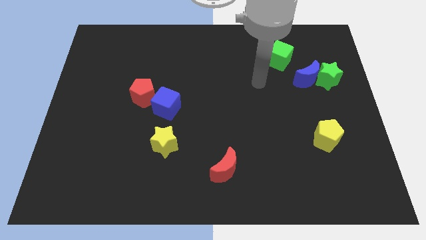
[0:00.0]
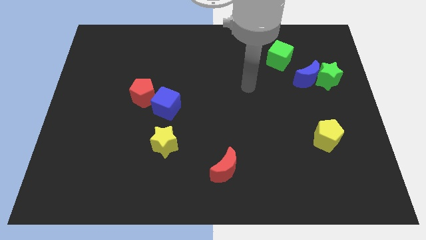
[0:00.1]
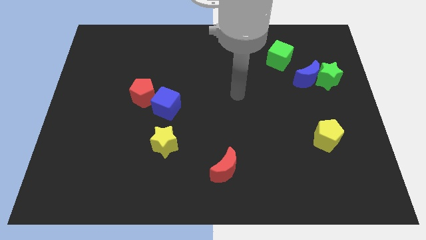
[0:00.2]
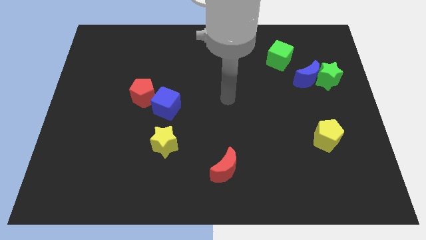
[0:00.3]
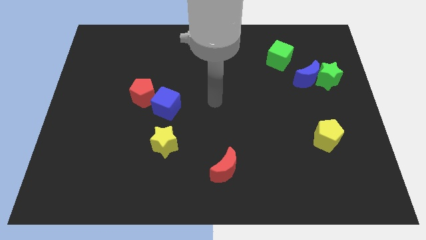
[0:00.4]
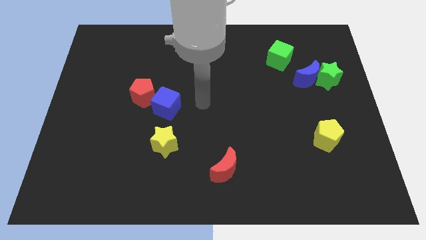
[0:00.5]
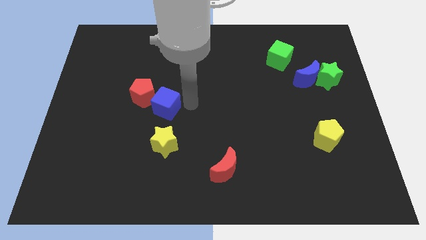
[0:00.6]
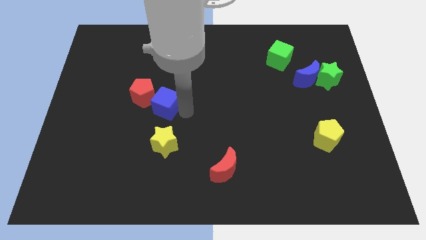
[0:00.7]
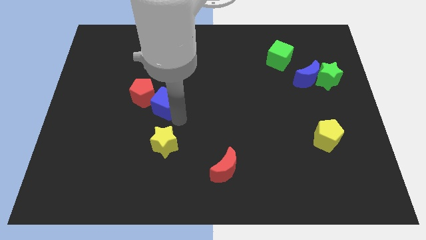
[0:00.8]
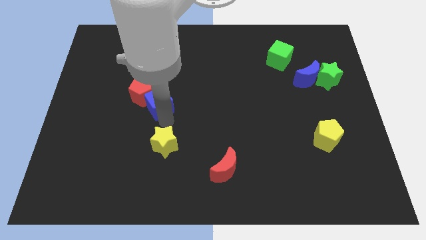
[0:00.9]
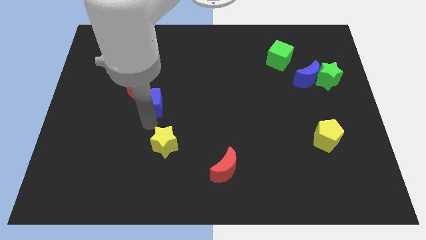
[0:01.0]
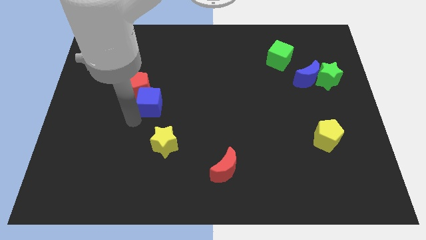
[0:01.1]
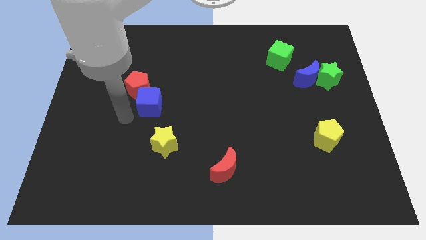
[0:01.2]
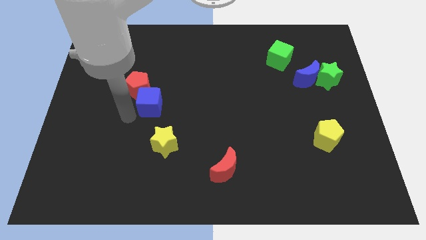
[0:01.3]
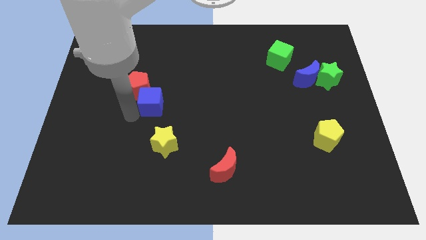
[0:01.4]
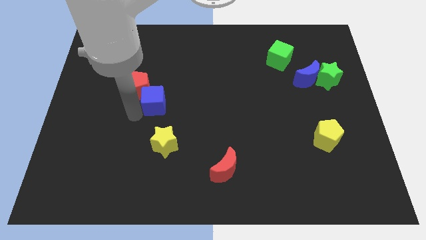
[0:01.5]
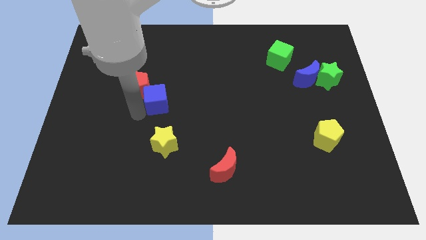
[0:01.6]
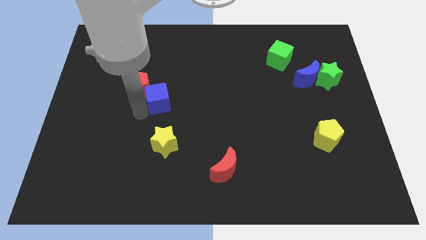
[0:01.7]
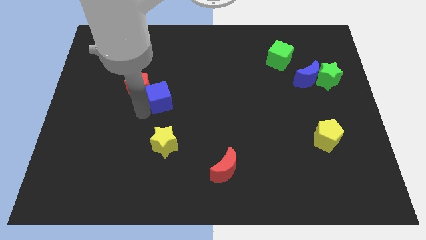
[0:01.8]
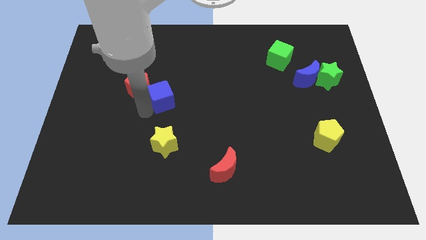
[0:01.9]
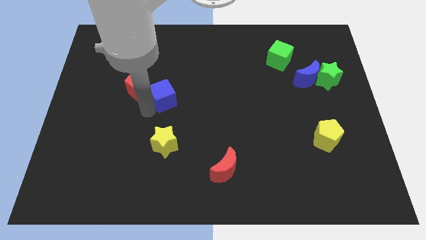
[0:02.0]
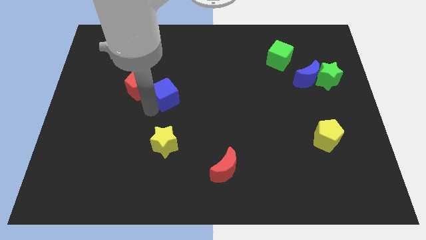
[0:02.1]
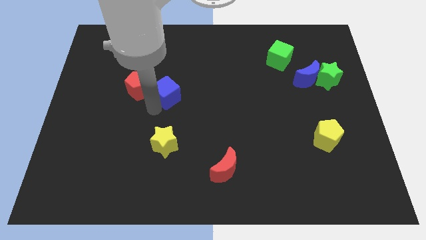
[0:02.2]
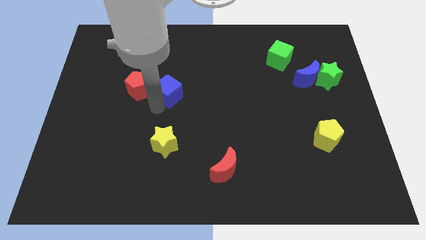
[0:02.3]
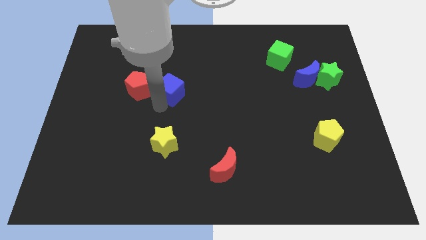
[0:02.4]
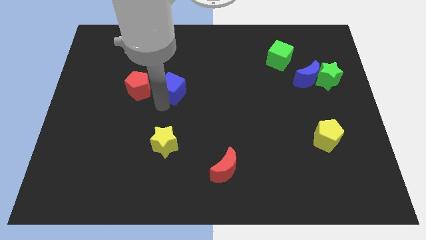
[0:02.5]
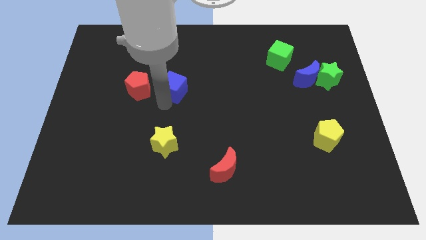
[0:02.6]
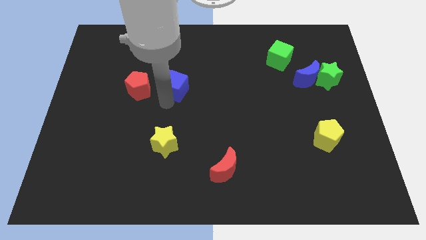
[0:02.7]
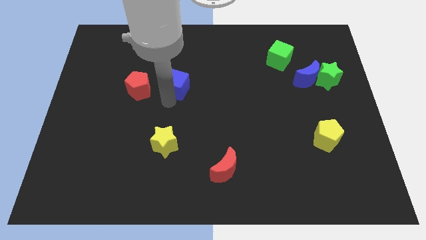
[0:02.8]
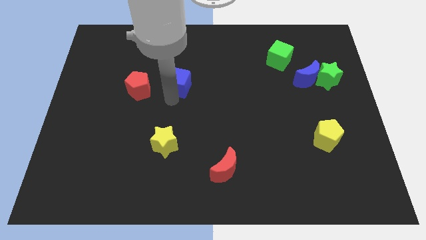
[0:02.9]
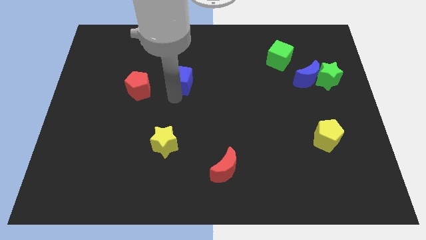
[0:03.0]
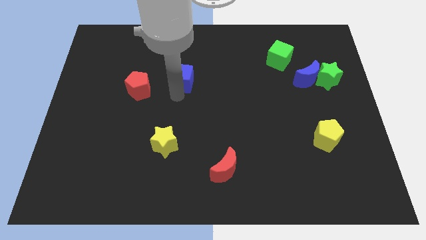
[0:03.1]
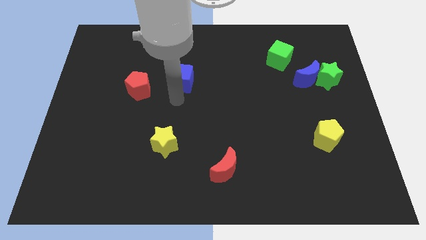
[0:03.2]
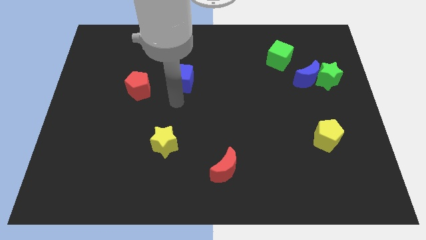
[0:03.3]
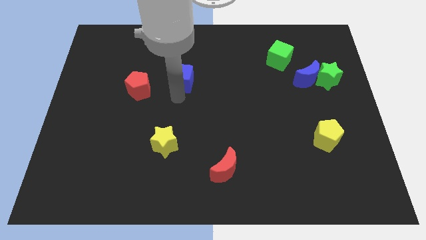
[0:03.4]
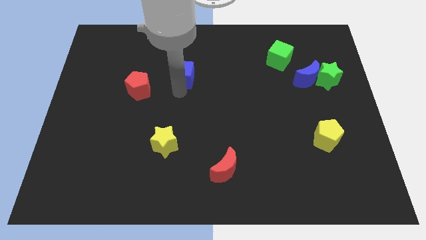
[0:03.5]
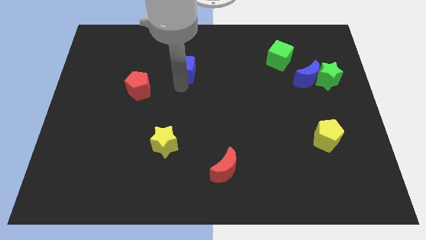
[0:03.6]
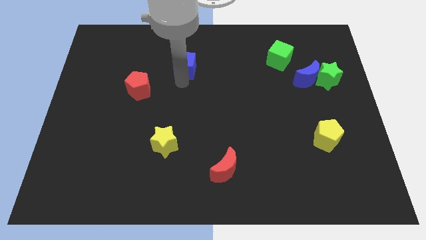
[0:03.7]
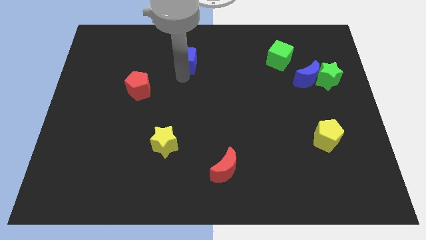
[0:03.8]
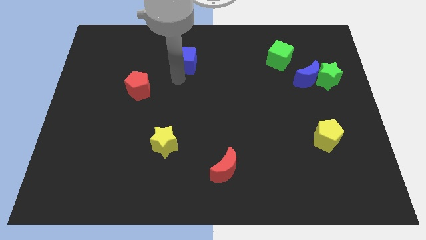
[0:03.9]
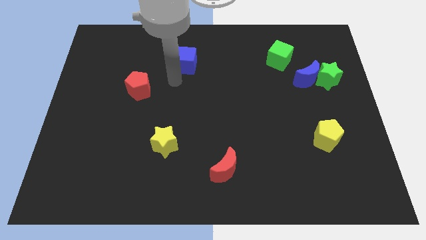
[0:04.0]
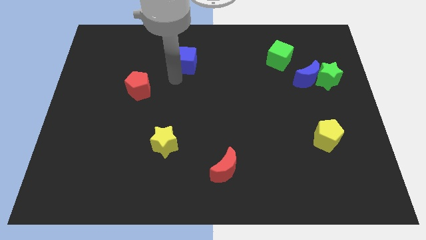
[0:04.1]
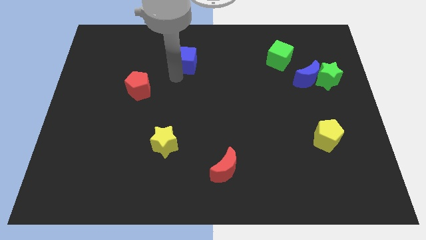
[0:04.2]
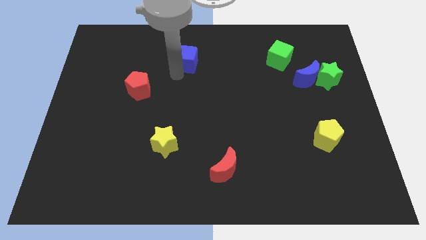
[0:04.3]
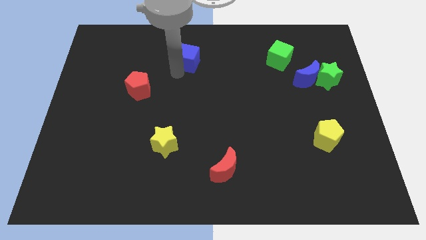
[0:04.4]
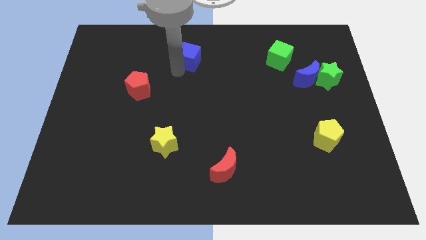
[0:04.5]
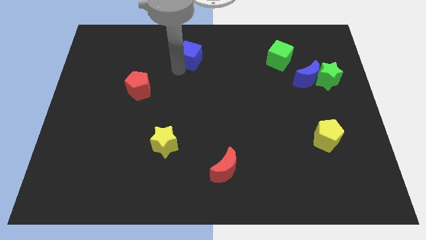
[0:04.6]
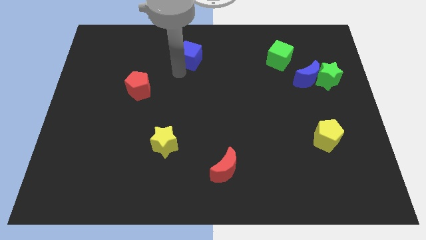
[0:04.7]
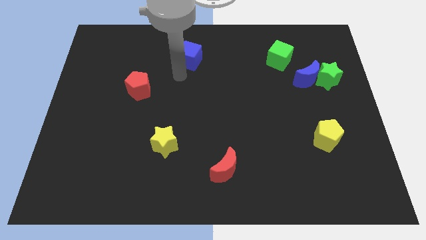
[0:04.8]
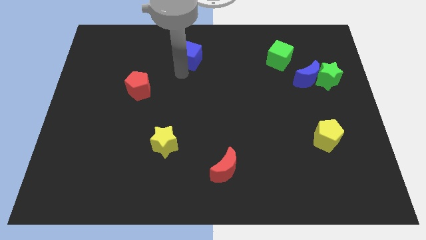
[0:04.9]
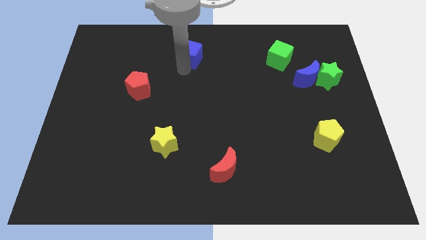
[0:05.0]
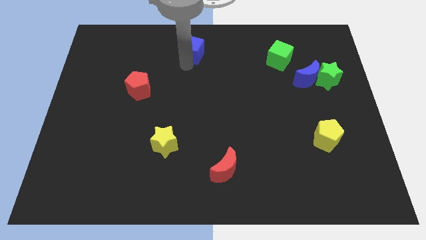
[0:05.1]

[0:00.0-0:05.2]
push the blue cube to the towards your base

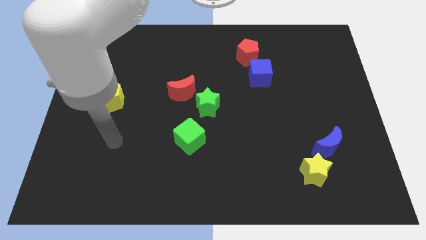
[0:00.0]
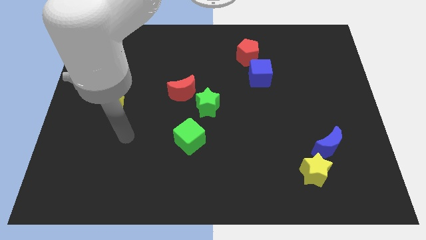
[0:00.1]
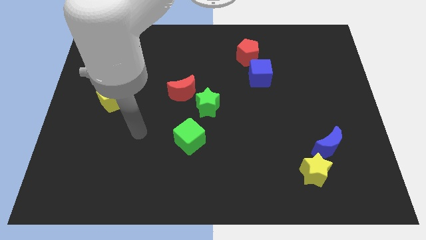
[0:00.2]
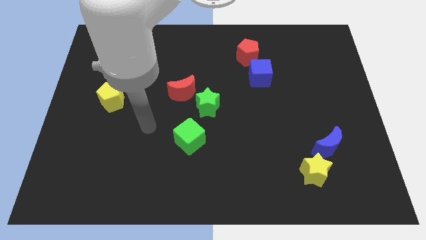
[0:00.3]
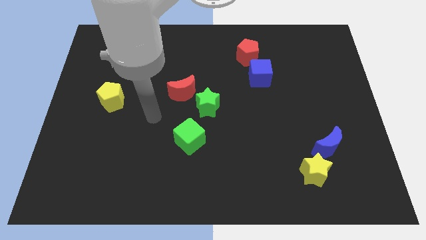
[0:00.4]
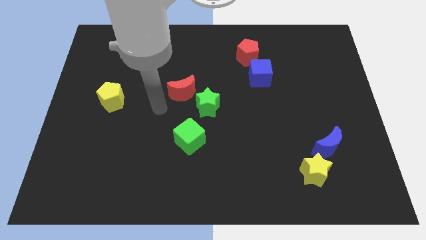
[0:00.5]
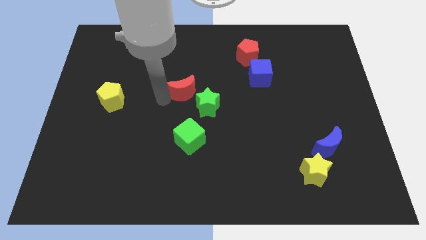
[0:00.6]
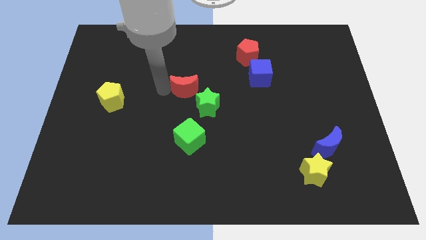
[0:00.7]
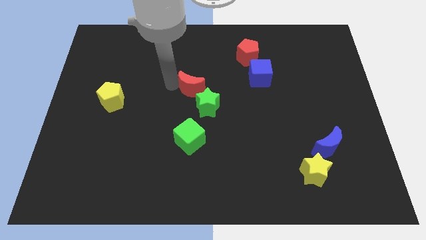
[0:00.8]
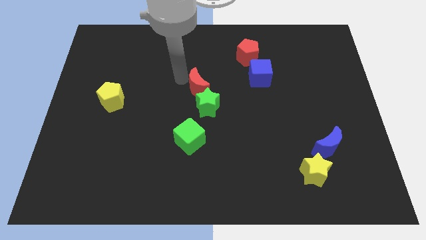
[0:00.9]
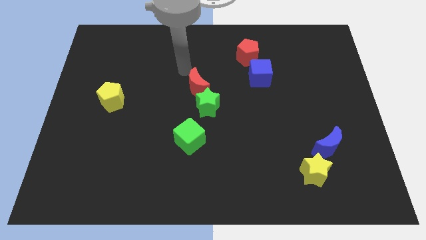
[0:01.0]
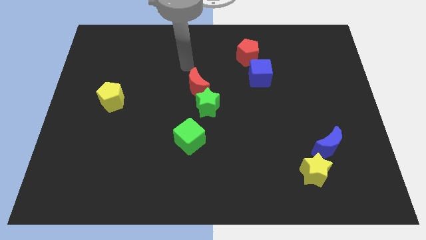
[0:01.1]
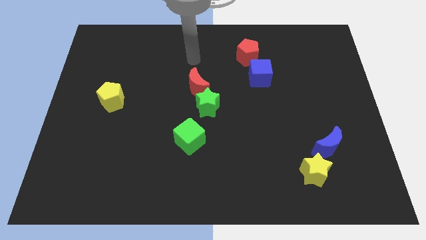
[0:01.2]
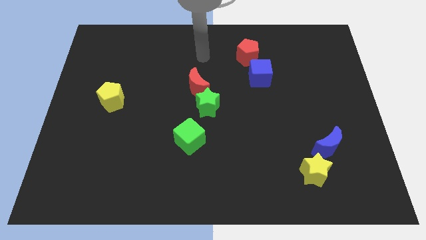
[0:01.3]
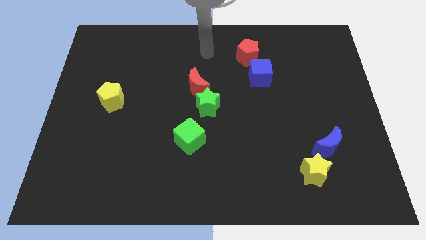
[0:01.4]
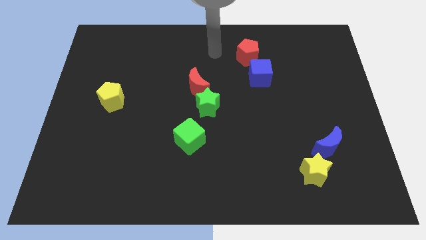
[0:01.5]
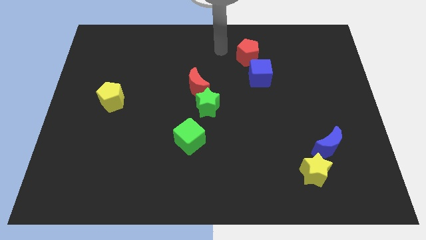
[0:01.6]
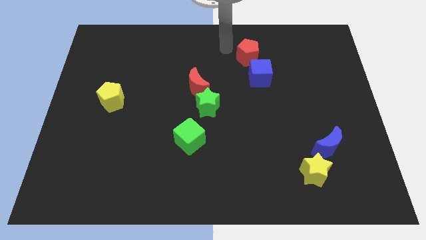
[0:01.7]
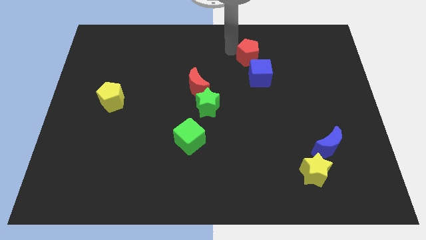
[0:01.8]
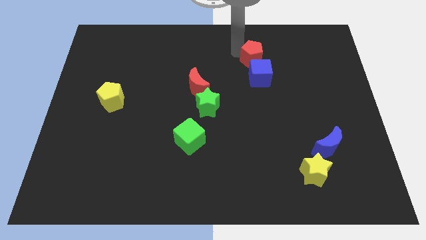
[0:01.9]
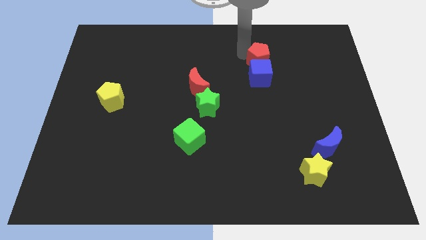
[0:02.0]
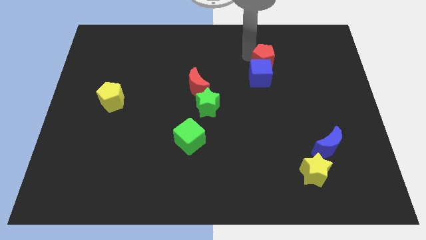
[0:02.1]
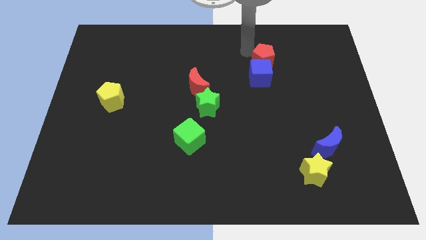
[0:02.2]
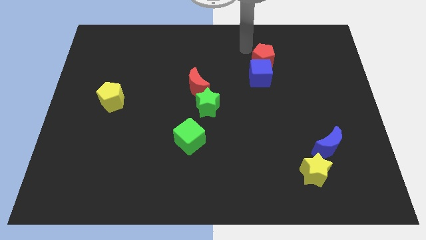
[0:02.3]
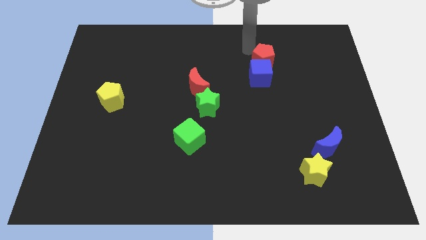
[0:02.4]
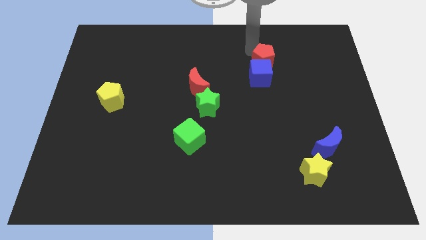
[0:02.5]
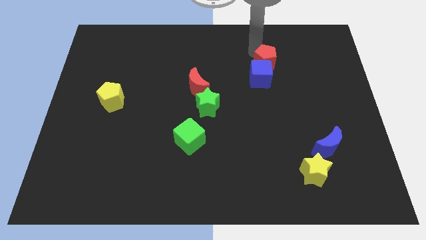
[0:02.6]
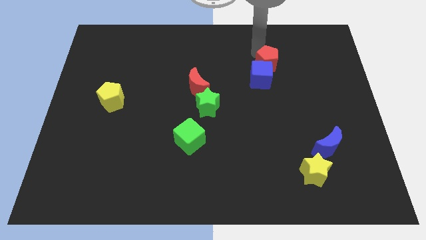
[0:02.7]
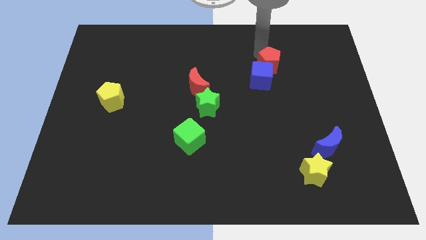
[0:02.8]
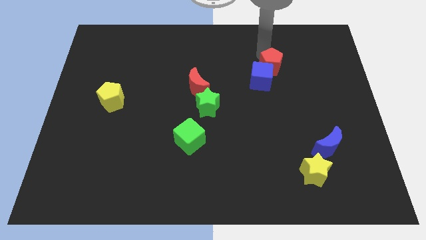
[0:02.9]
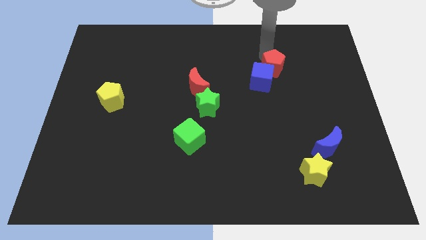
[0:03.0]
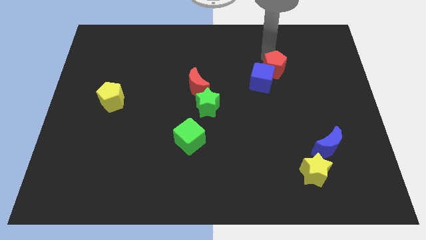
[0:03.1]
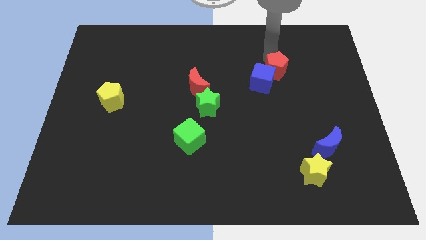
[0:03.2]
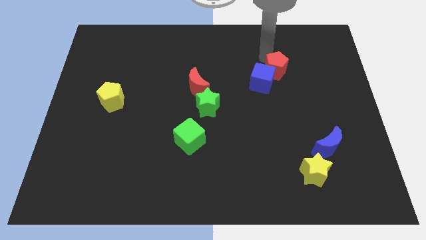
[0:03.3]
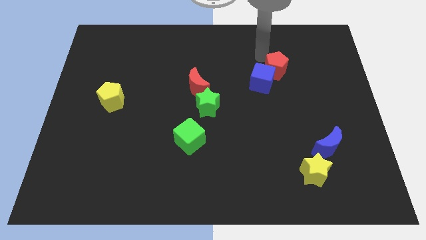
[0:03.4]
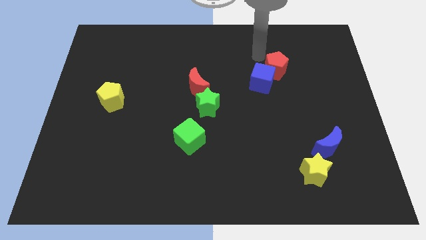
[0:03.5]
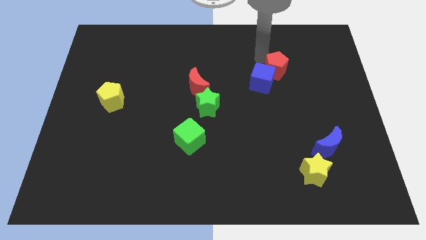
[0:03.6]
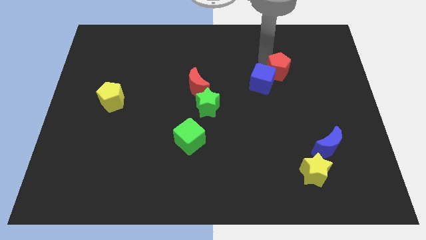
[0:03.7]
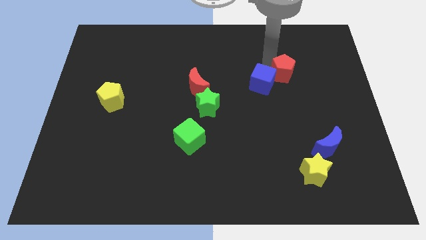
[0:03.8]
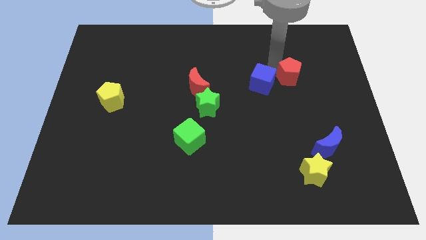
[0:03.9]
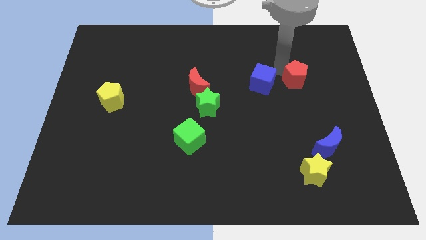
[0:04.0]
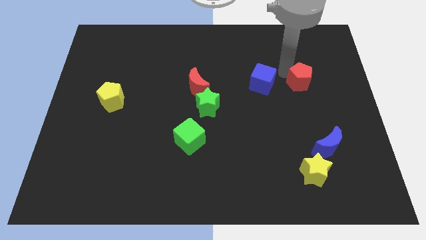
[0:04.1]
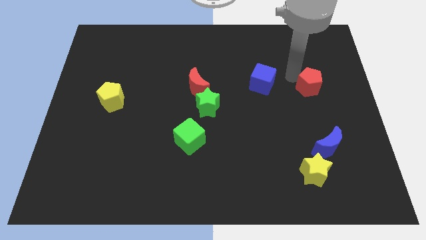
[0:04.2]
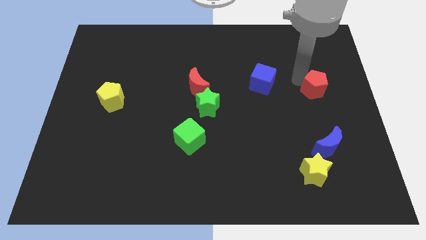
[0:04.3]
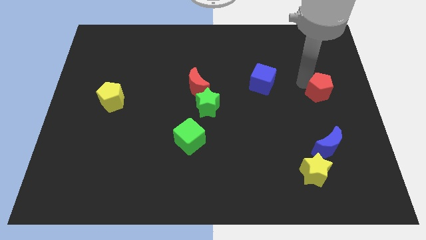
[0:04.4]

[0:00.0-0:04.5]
slide the red pentagon to the center right
